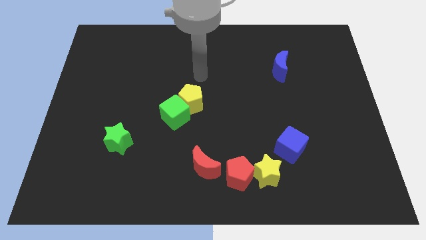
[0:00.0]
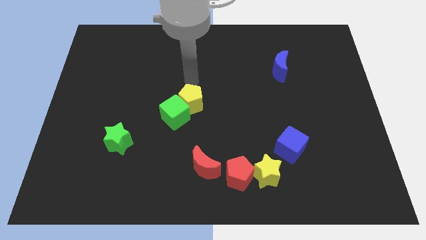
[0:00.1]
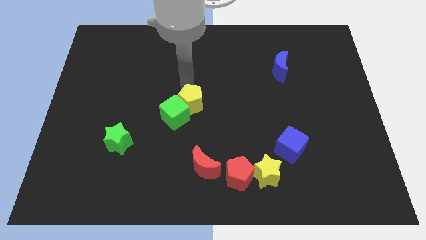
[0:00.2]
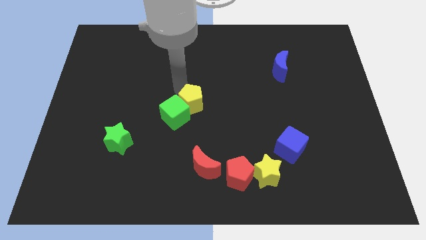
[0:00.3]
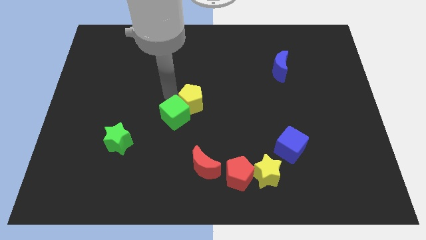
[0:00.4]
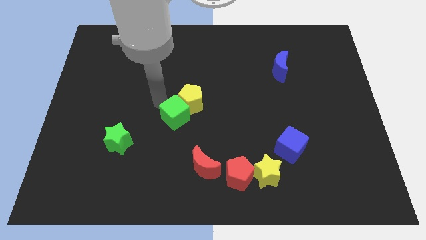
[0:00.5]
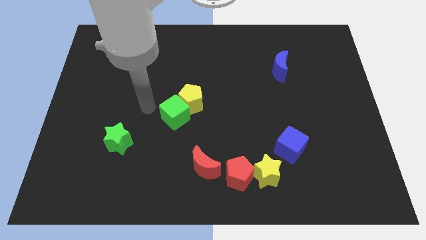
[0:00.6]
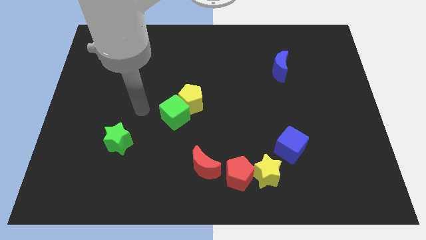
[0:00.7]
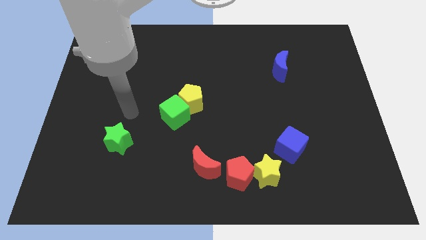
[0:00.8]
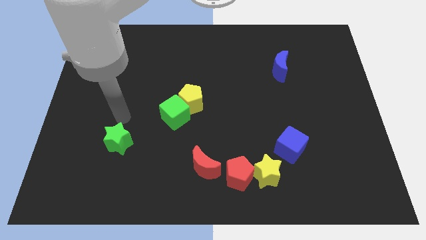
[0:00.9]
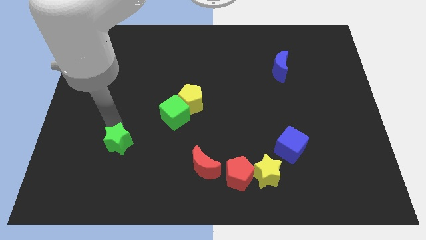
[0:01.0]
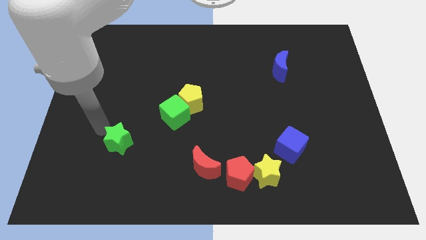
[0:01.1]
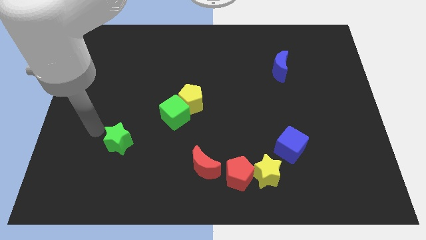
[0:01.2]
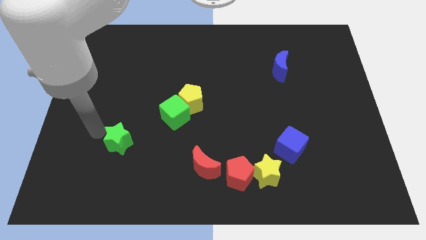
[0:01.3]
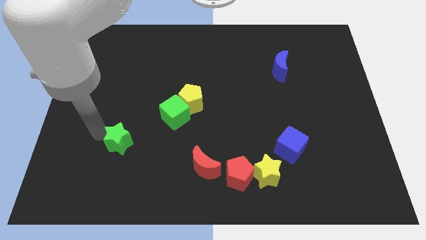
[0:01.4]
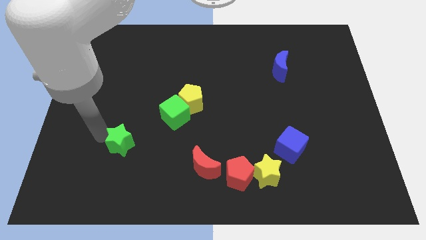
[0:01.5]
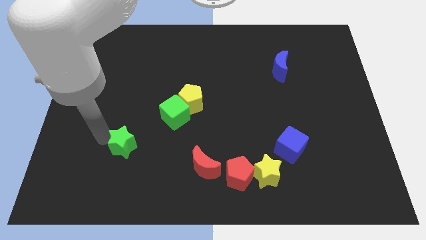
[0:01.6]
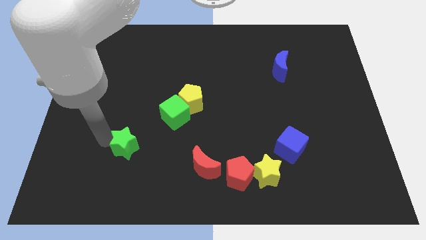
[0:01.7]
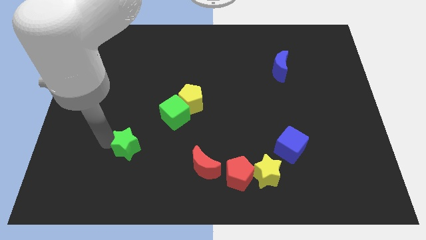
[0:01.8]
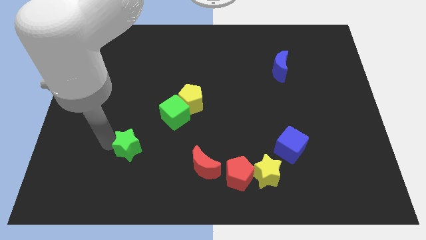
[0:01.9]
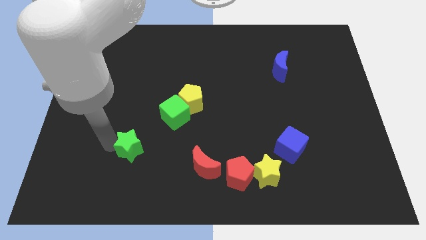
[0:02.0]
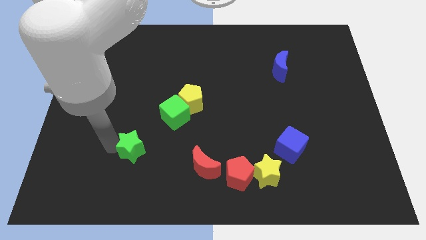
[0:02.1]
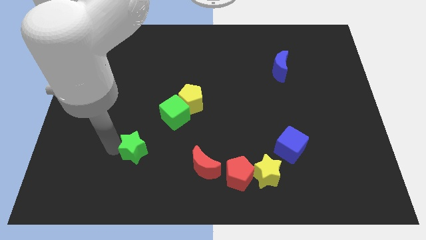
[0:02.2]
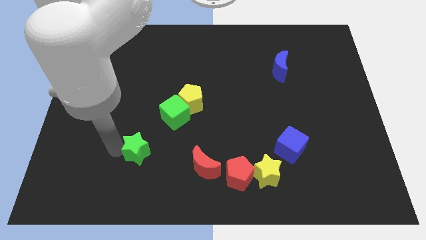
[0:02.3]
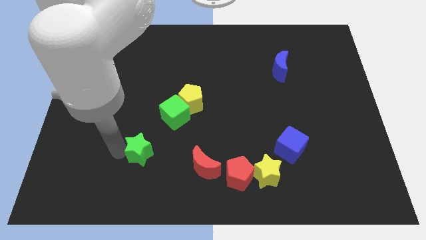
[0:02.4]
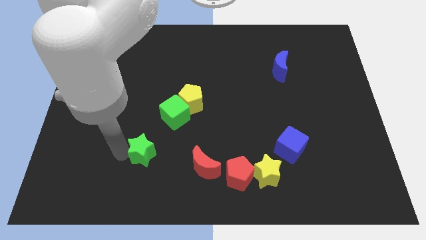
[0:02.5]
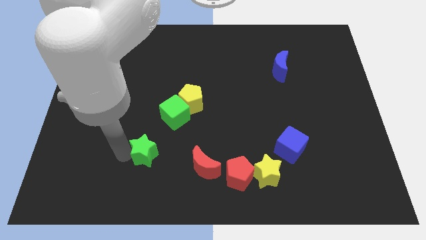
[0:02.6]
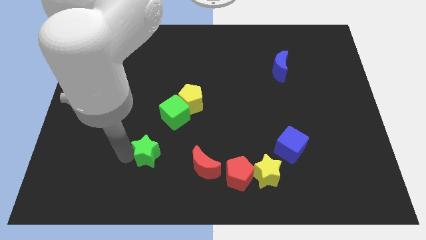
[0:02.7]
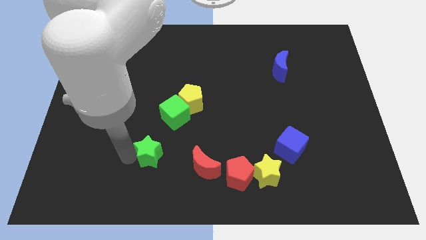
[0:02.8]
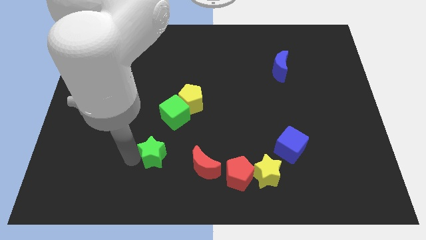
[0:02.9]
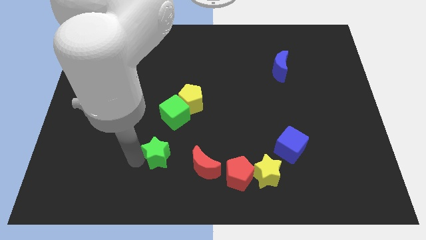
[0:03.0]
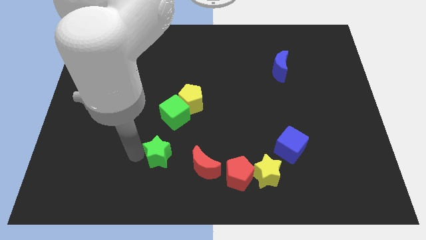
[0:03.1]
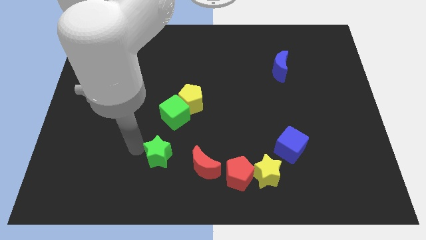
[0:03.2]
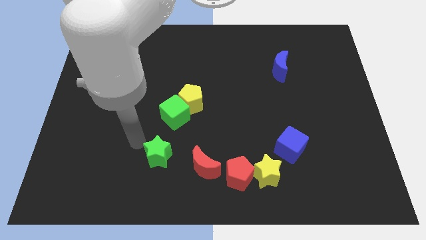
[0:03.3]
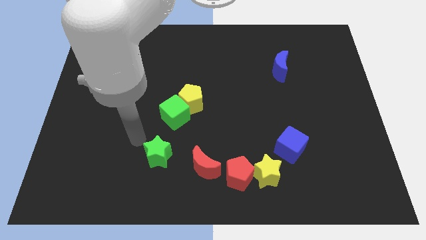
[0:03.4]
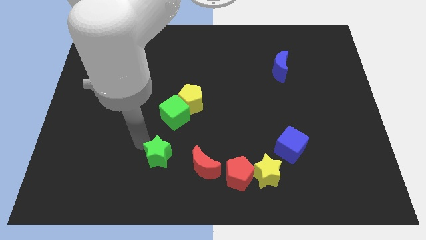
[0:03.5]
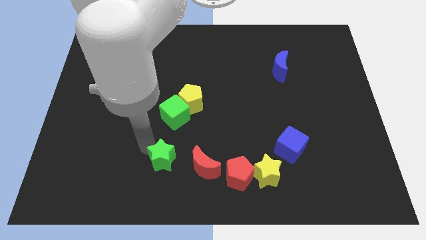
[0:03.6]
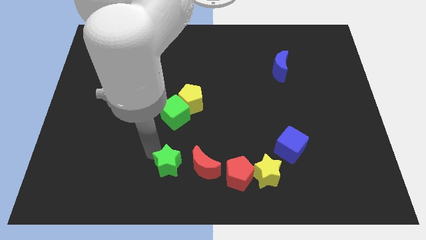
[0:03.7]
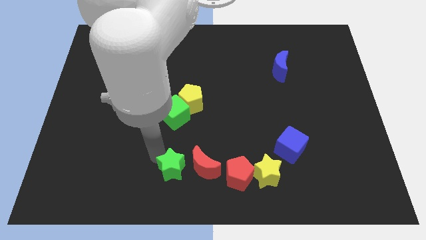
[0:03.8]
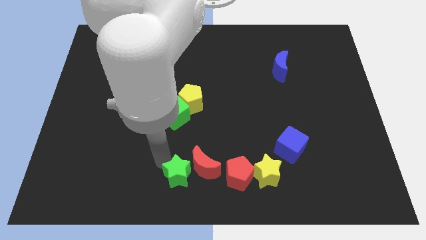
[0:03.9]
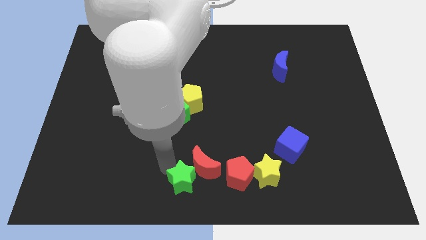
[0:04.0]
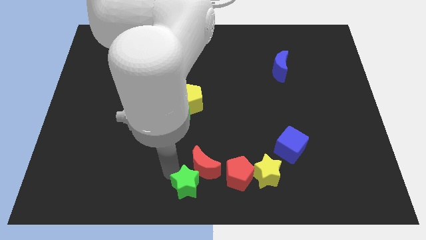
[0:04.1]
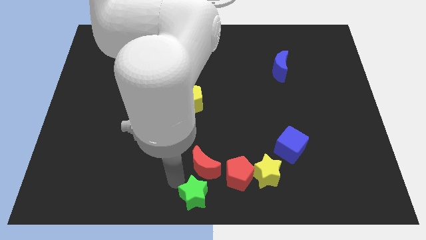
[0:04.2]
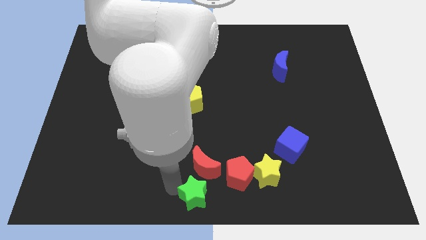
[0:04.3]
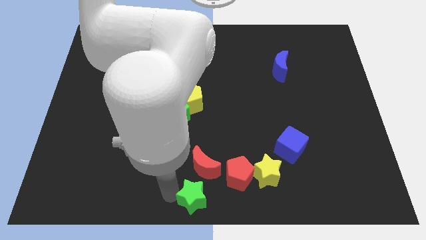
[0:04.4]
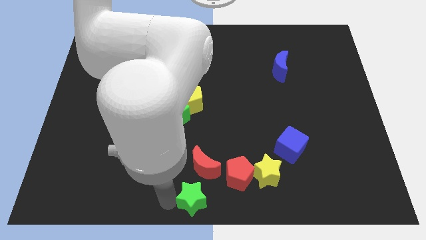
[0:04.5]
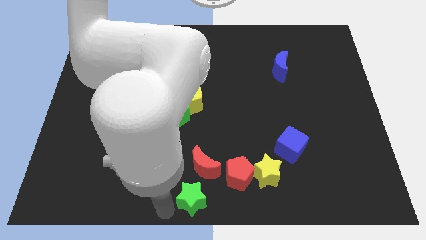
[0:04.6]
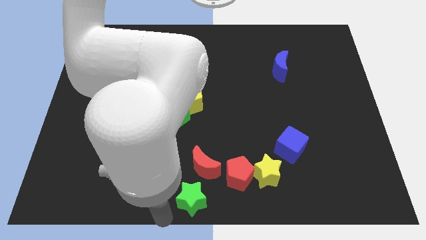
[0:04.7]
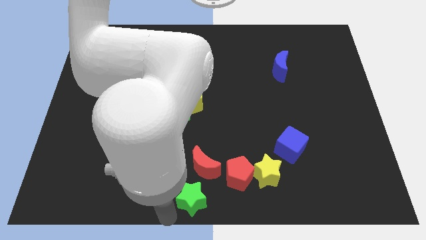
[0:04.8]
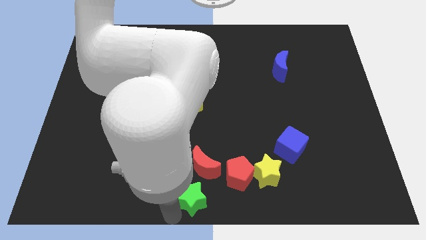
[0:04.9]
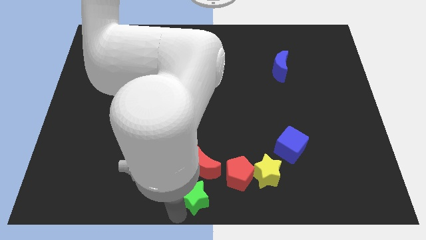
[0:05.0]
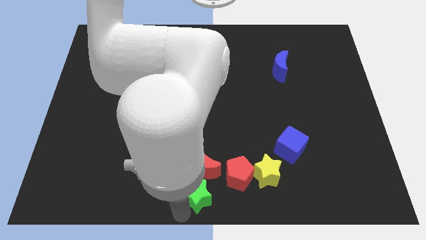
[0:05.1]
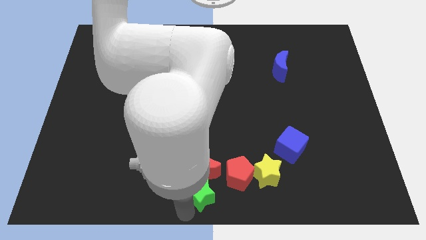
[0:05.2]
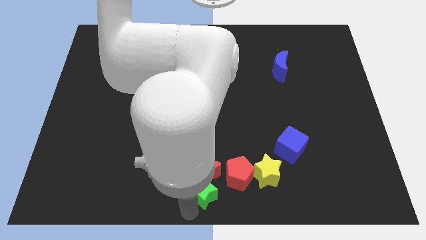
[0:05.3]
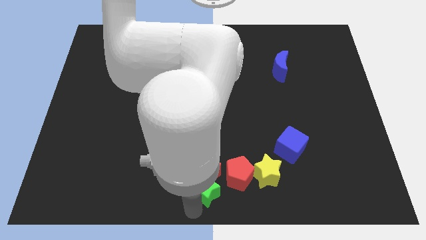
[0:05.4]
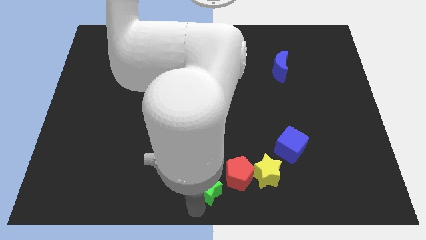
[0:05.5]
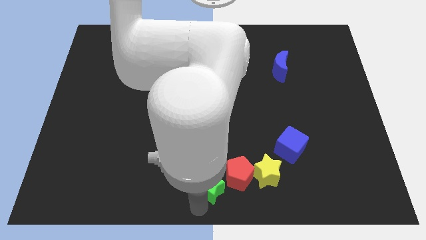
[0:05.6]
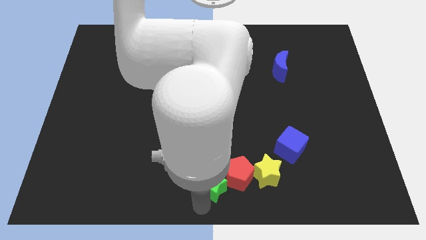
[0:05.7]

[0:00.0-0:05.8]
push the green star next to the red pentagon
